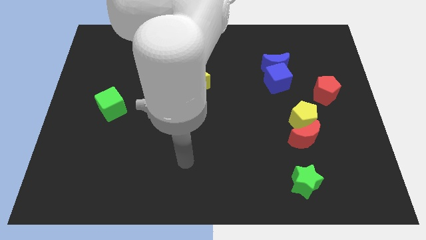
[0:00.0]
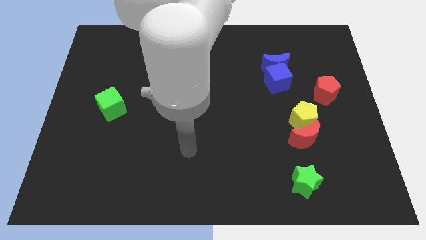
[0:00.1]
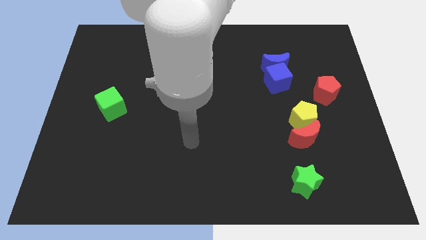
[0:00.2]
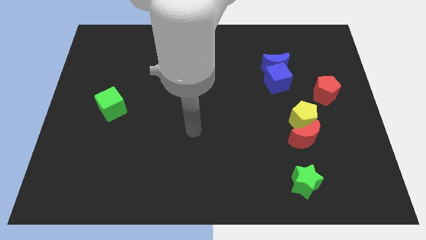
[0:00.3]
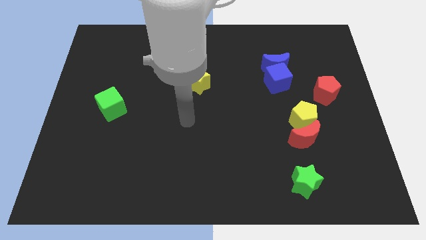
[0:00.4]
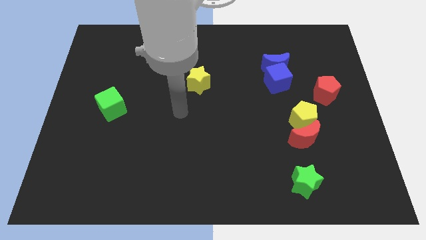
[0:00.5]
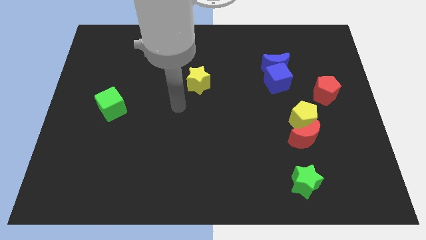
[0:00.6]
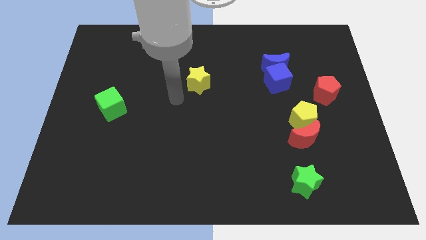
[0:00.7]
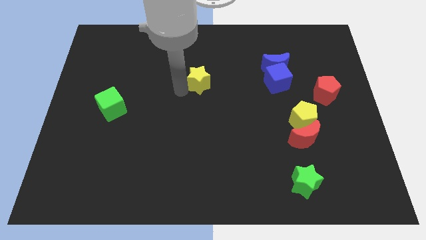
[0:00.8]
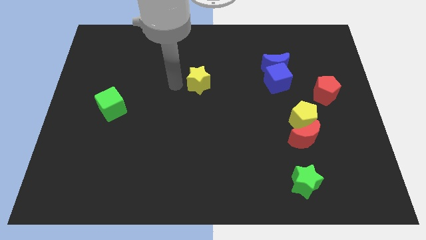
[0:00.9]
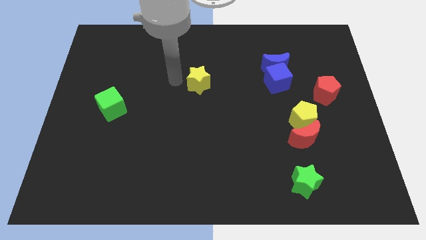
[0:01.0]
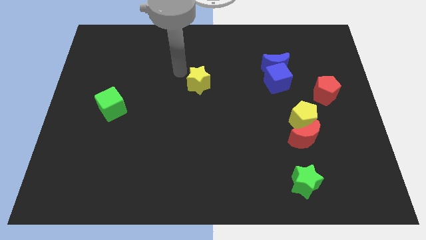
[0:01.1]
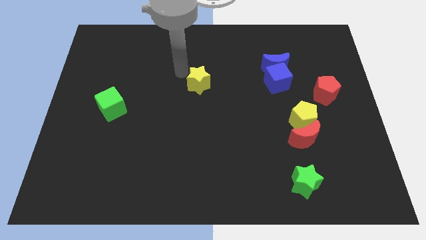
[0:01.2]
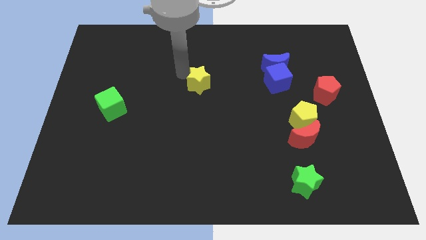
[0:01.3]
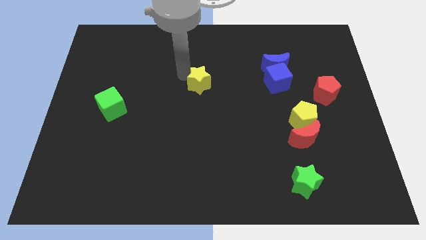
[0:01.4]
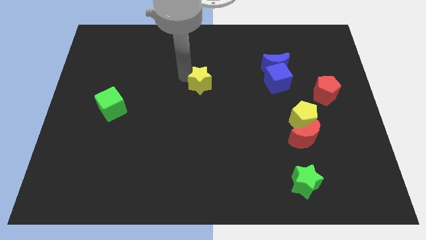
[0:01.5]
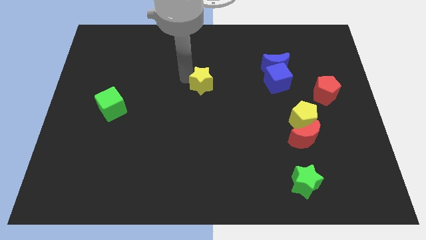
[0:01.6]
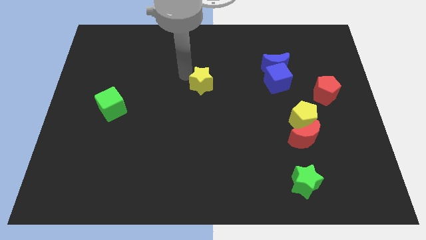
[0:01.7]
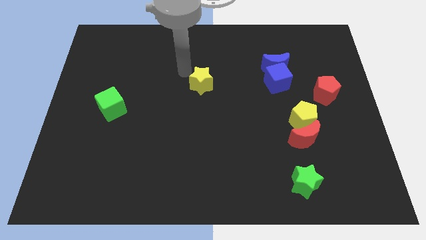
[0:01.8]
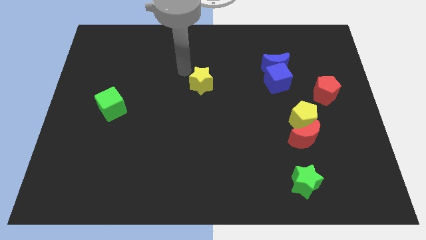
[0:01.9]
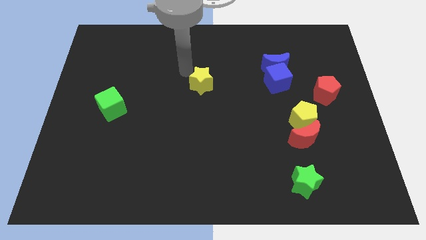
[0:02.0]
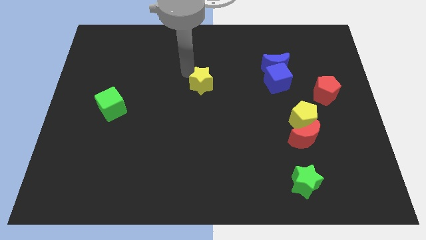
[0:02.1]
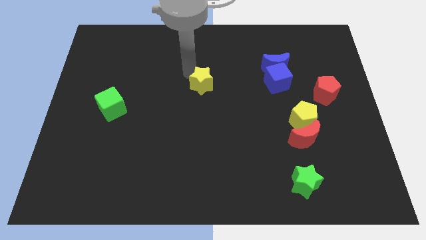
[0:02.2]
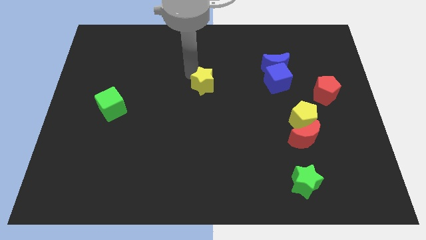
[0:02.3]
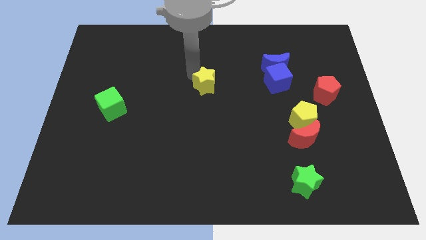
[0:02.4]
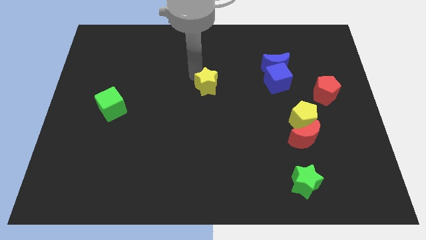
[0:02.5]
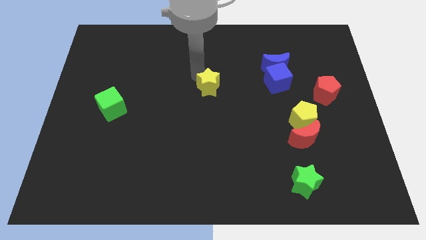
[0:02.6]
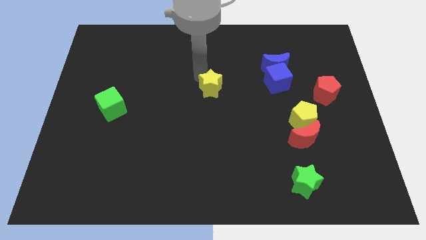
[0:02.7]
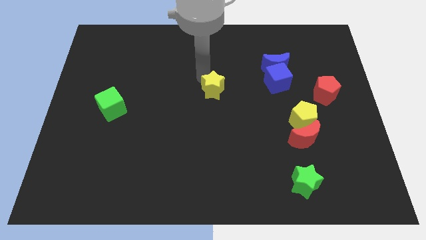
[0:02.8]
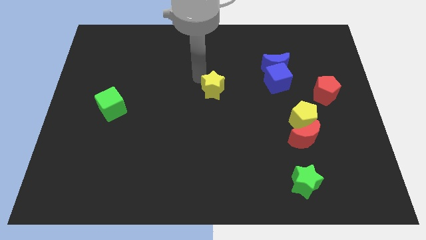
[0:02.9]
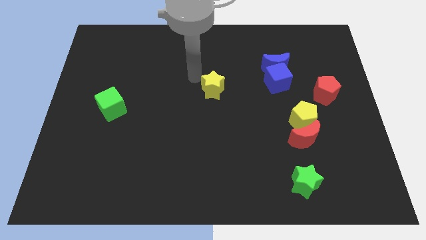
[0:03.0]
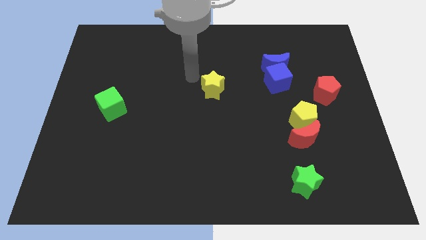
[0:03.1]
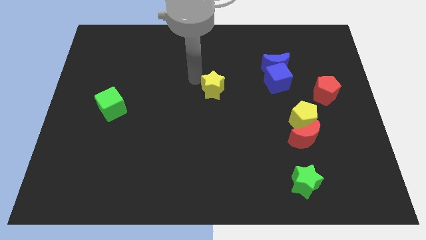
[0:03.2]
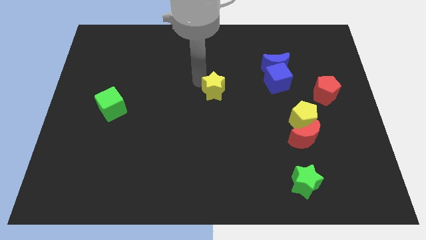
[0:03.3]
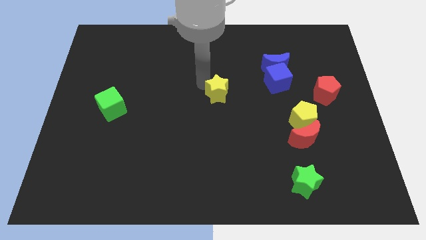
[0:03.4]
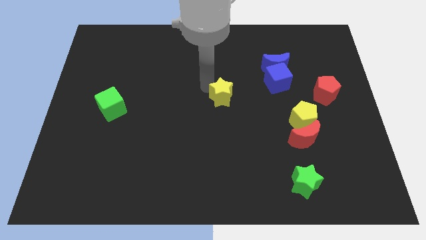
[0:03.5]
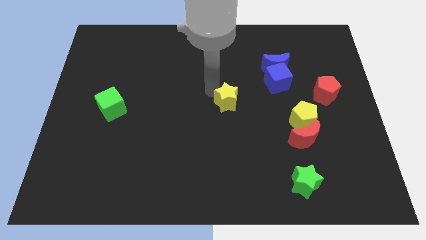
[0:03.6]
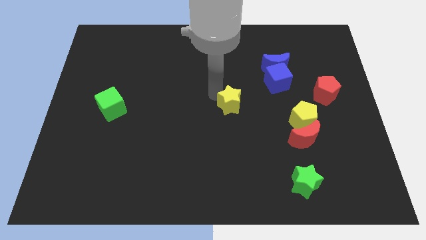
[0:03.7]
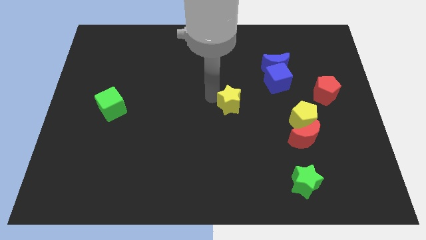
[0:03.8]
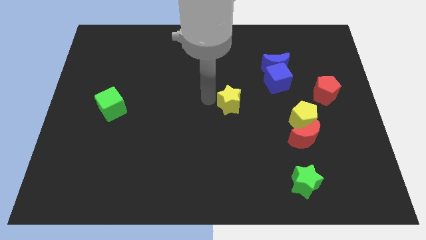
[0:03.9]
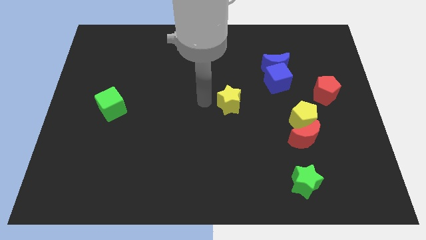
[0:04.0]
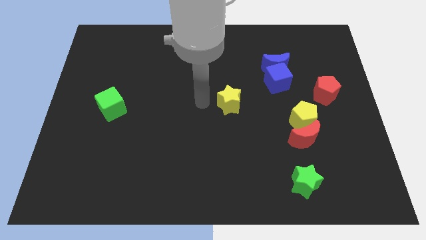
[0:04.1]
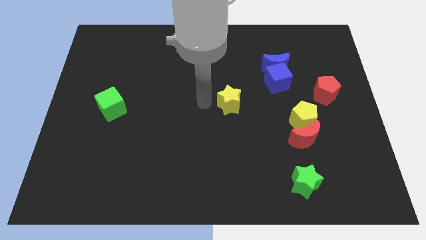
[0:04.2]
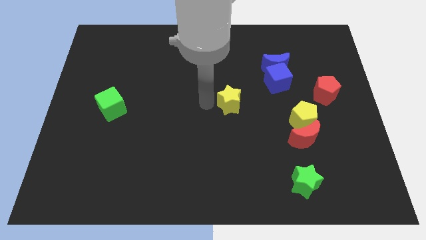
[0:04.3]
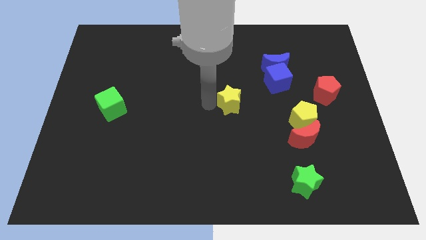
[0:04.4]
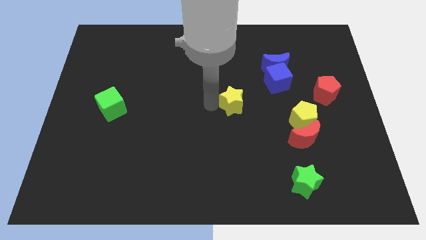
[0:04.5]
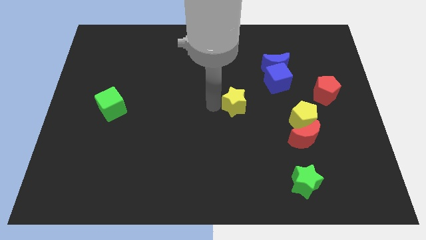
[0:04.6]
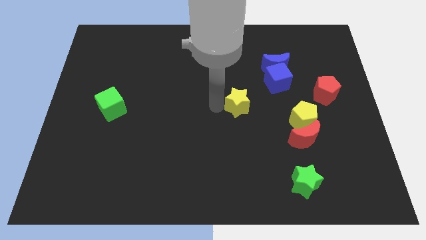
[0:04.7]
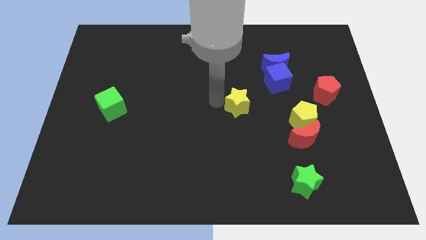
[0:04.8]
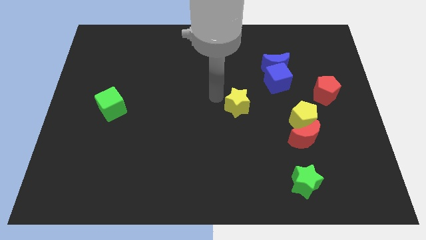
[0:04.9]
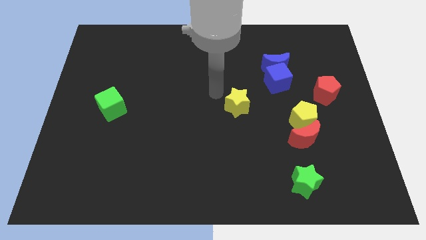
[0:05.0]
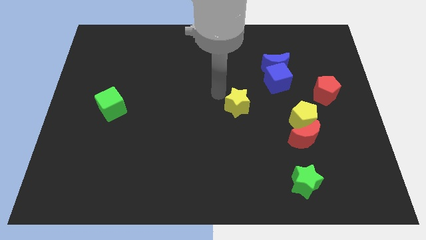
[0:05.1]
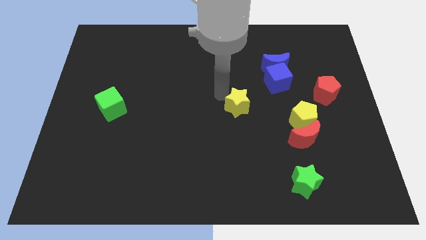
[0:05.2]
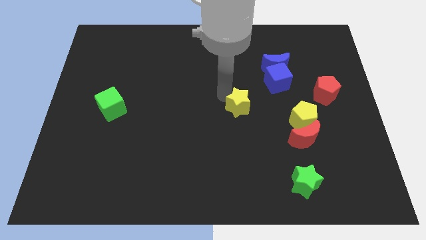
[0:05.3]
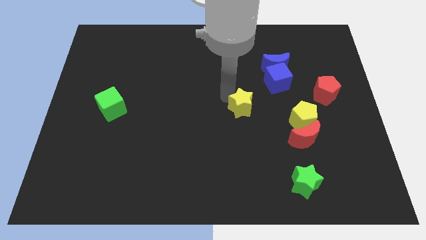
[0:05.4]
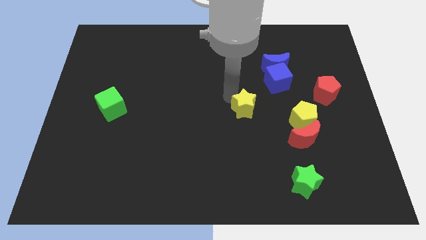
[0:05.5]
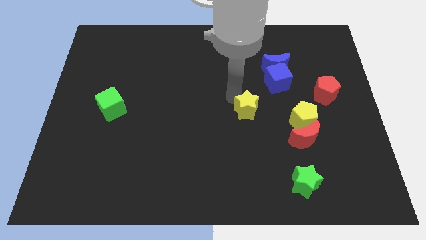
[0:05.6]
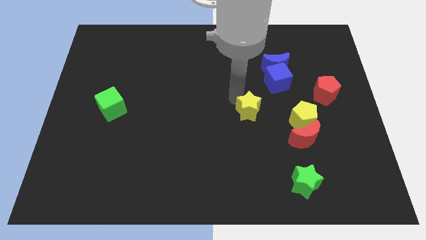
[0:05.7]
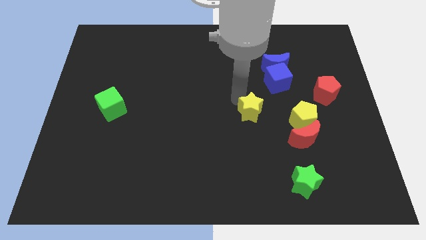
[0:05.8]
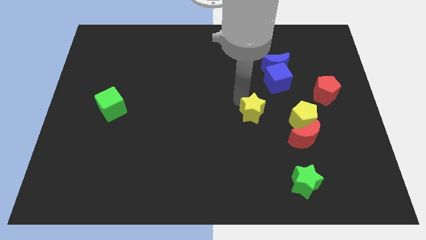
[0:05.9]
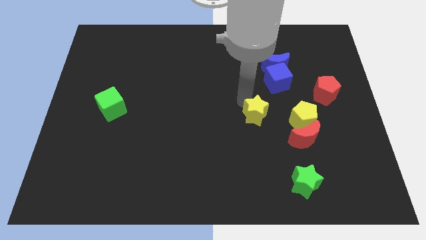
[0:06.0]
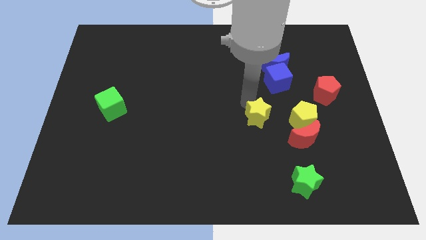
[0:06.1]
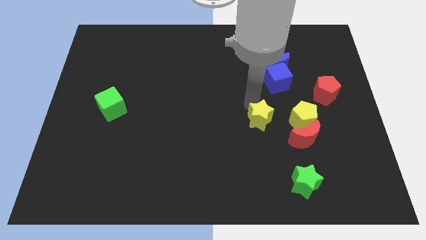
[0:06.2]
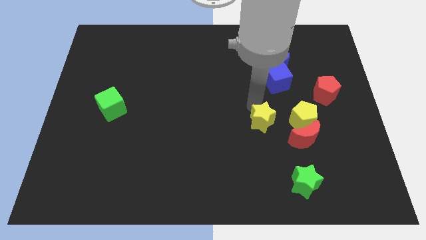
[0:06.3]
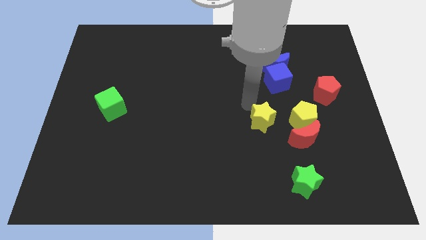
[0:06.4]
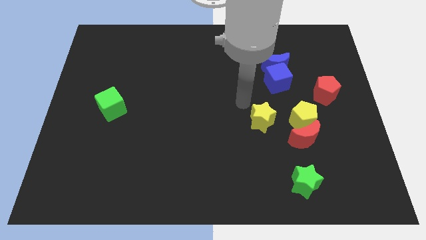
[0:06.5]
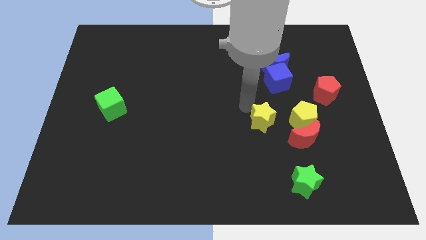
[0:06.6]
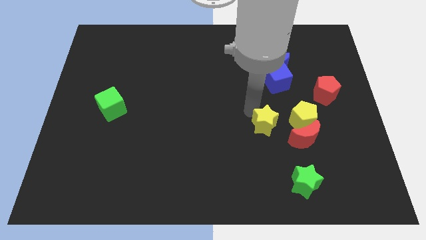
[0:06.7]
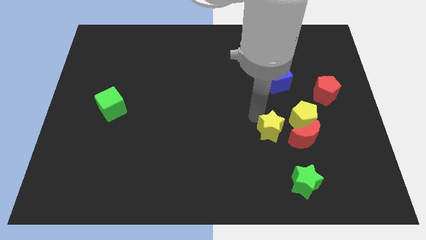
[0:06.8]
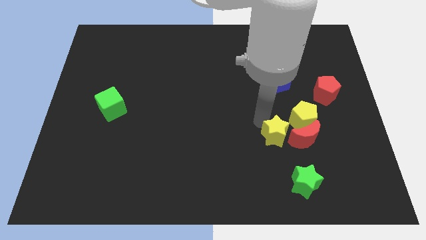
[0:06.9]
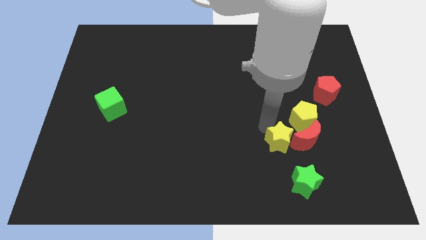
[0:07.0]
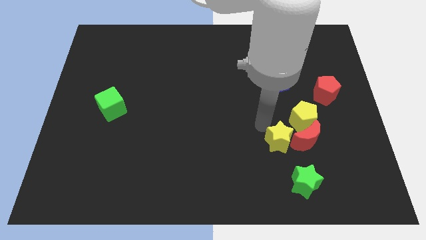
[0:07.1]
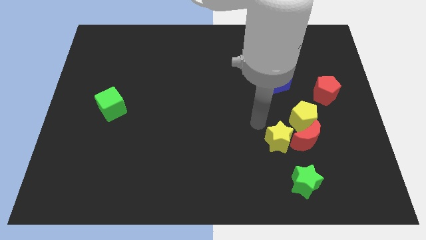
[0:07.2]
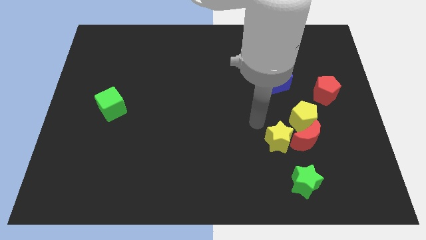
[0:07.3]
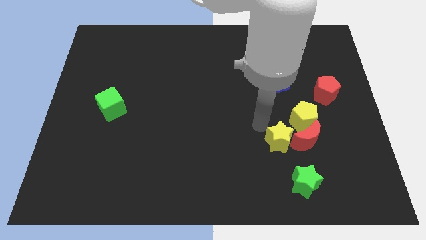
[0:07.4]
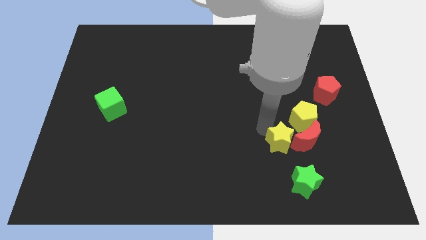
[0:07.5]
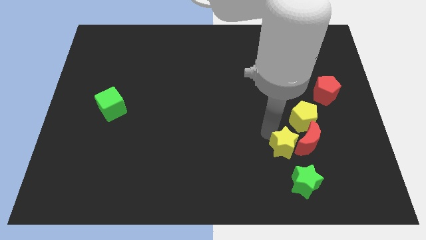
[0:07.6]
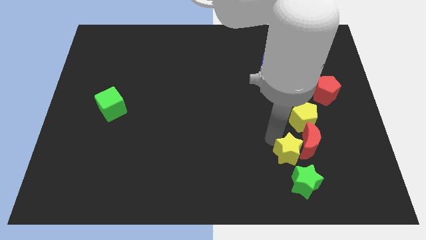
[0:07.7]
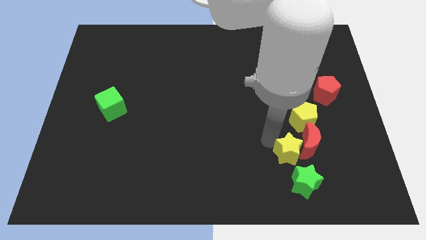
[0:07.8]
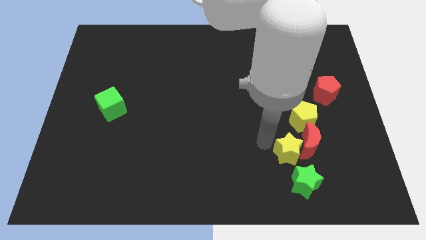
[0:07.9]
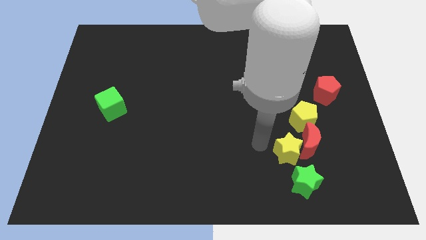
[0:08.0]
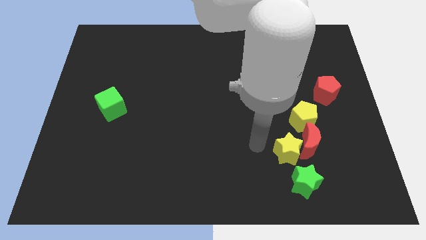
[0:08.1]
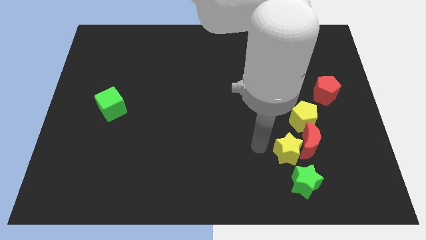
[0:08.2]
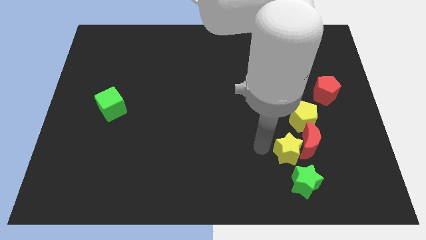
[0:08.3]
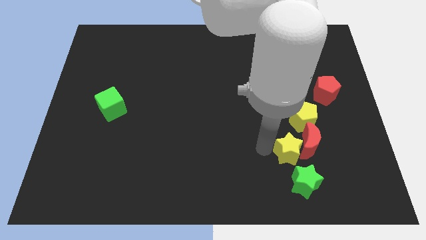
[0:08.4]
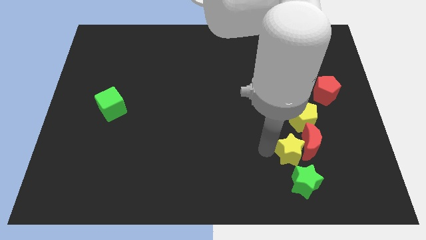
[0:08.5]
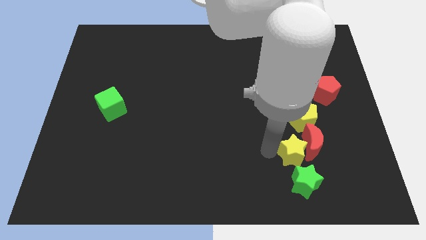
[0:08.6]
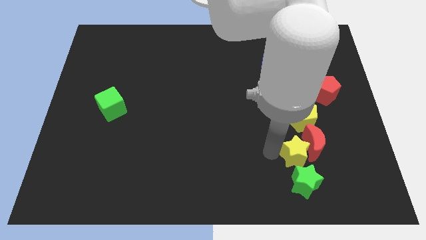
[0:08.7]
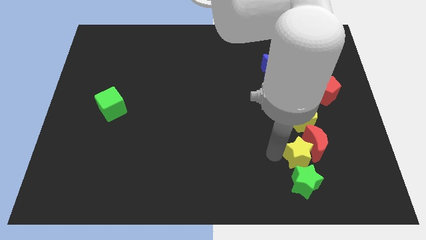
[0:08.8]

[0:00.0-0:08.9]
move the yellow star diagonally up and to the right of the green star
